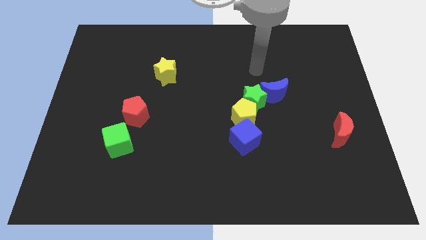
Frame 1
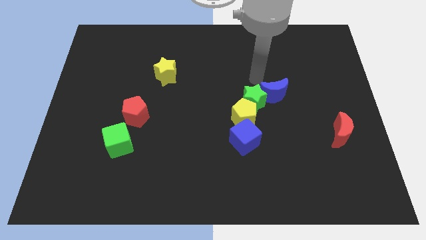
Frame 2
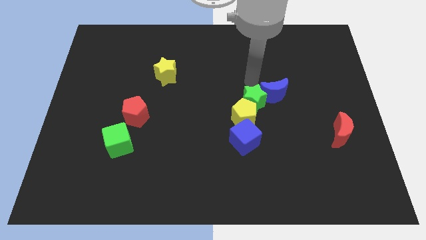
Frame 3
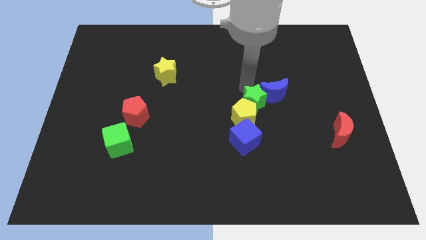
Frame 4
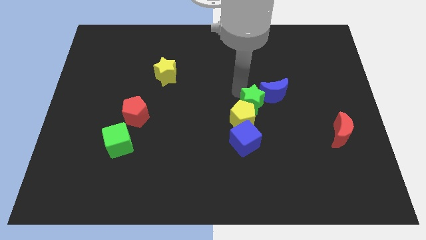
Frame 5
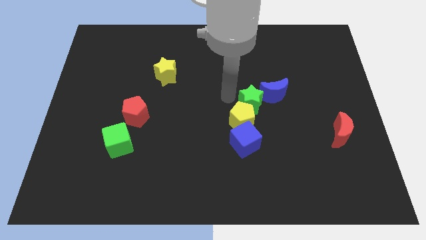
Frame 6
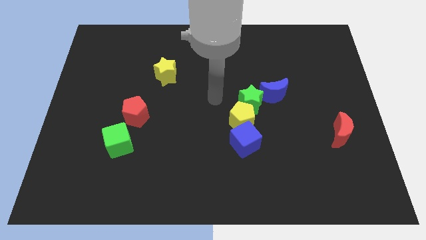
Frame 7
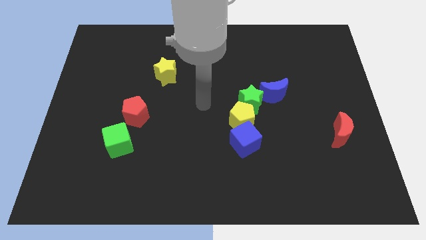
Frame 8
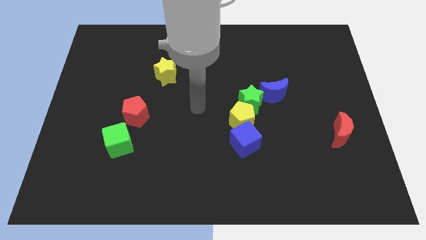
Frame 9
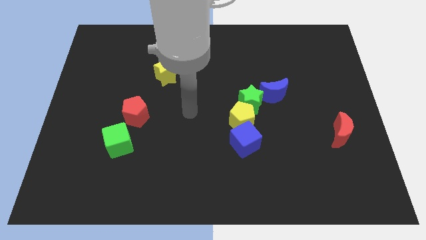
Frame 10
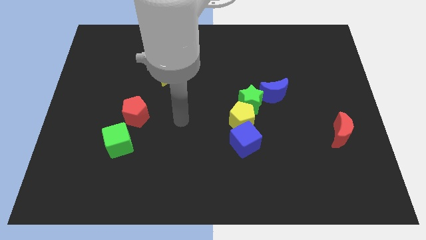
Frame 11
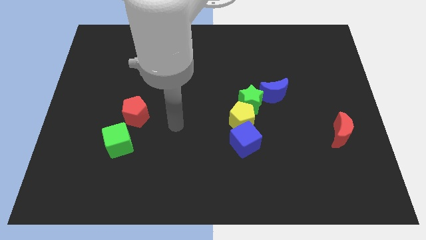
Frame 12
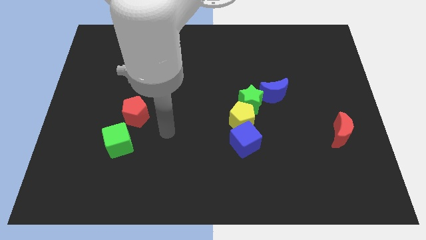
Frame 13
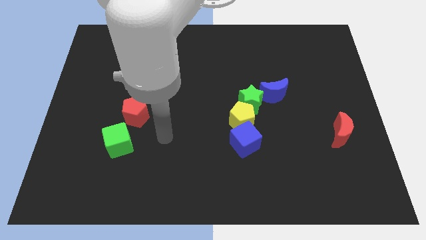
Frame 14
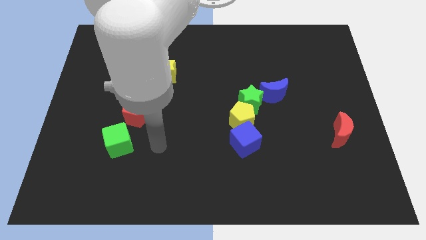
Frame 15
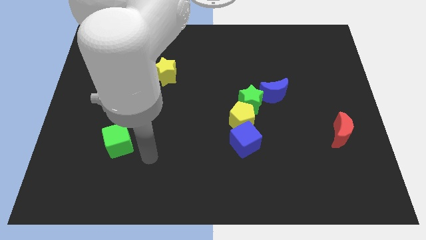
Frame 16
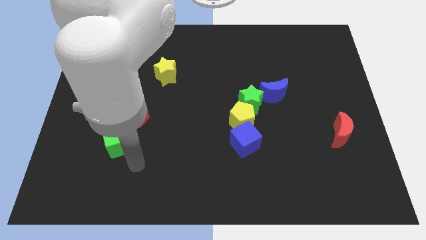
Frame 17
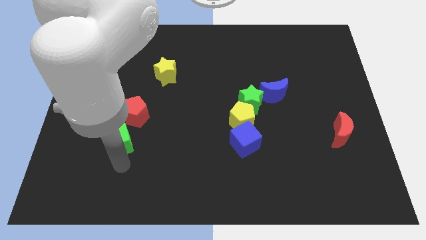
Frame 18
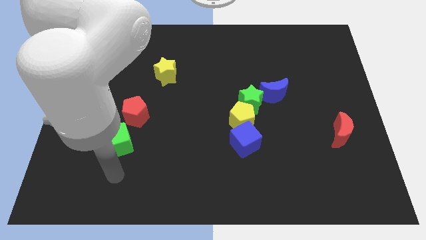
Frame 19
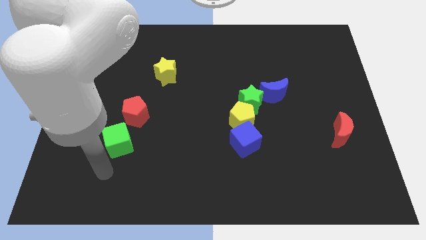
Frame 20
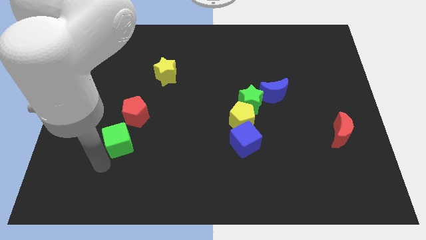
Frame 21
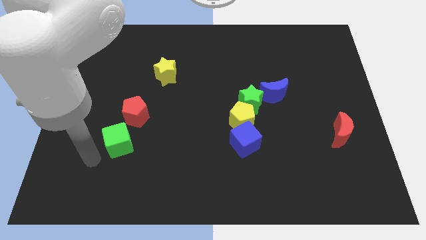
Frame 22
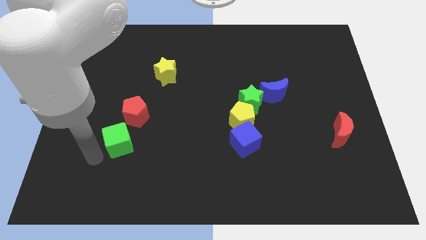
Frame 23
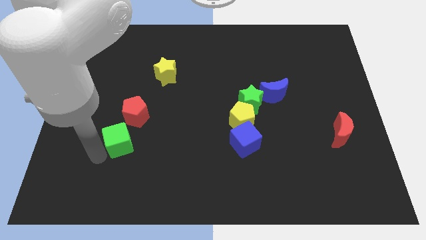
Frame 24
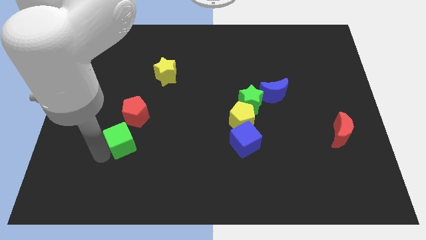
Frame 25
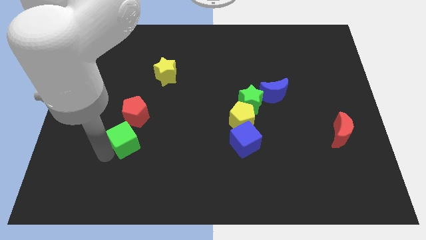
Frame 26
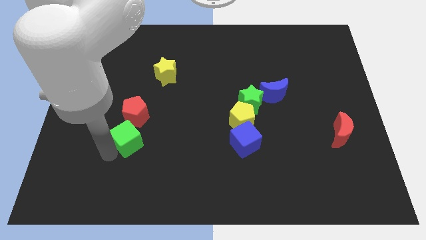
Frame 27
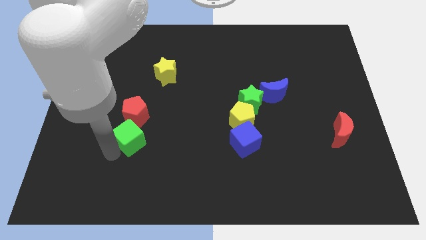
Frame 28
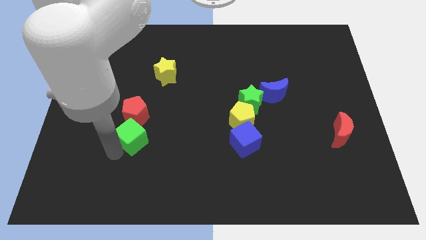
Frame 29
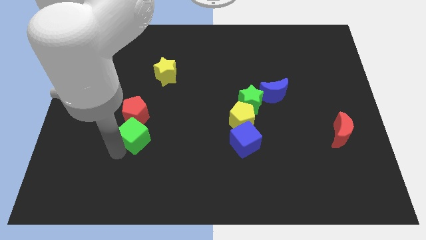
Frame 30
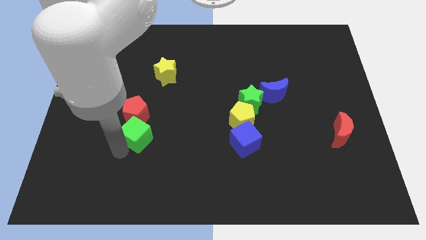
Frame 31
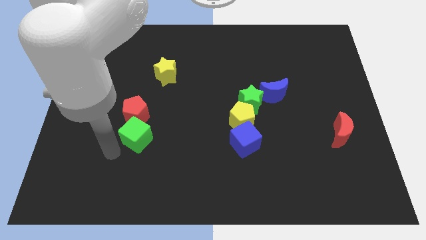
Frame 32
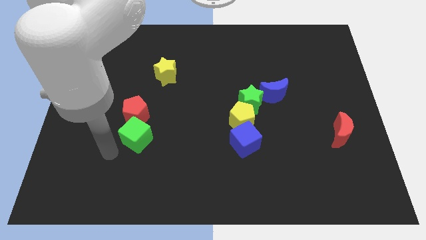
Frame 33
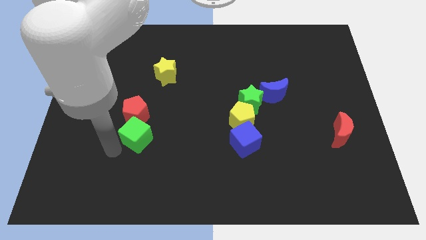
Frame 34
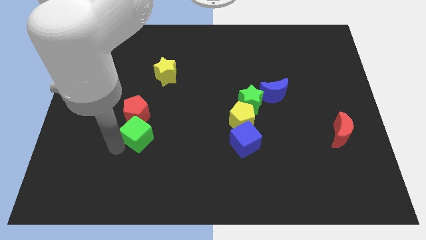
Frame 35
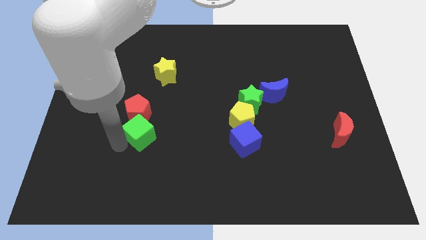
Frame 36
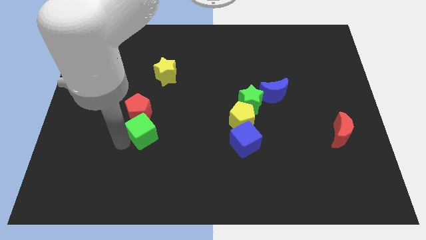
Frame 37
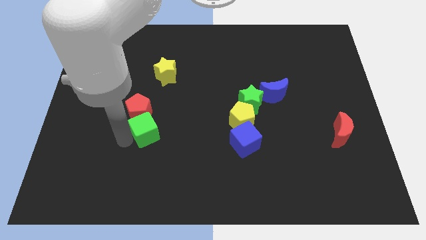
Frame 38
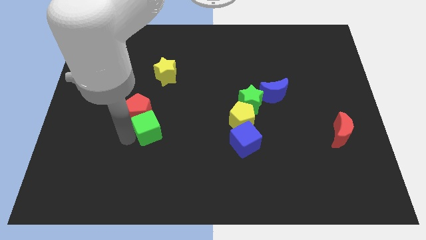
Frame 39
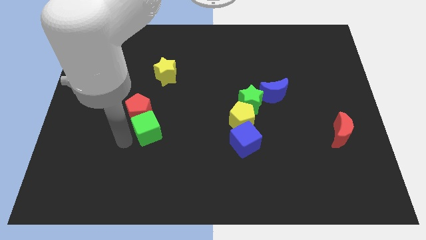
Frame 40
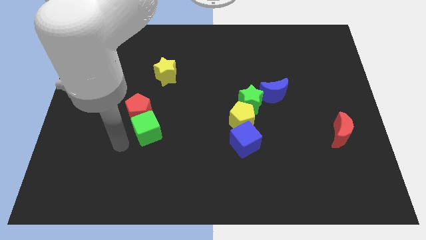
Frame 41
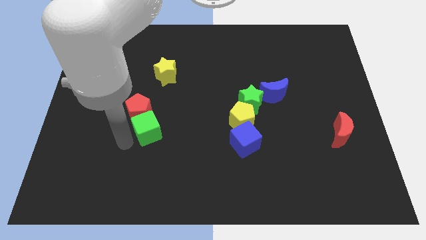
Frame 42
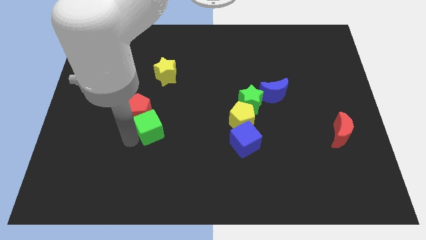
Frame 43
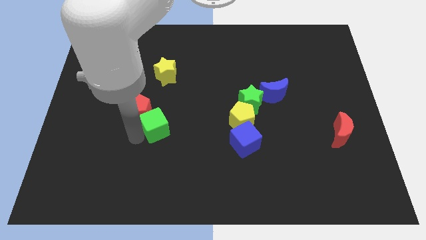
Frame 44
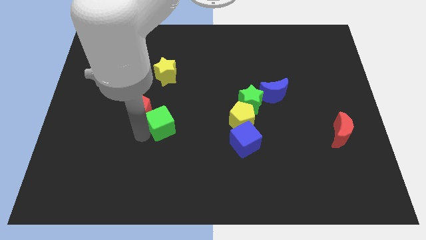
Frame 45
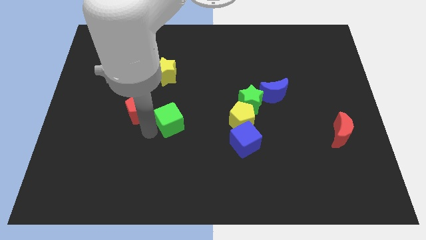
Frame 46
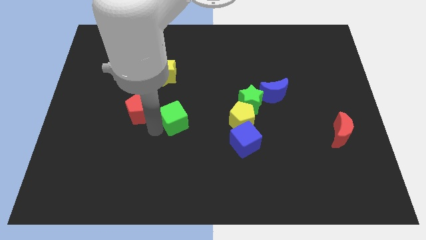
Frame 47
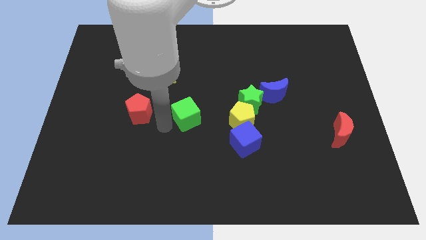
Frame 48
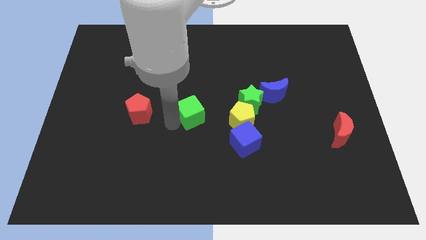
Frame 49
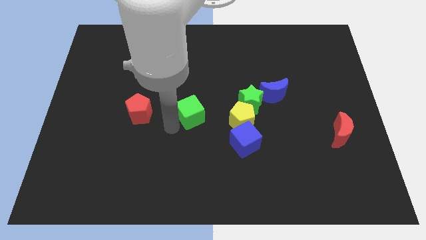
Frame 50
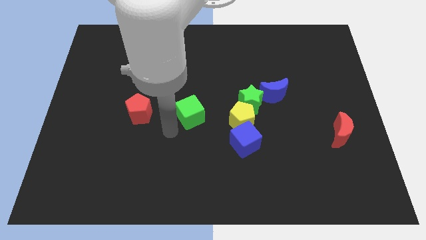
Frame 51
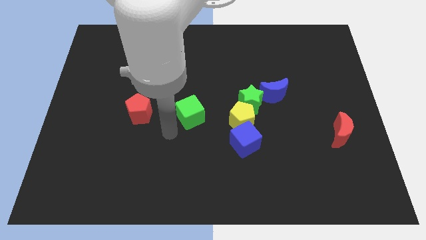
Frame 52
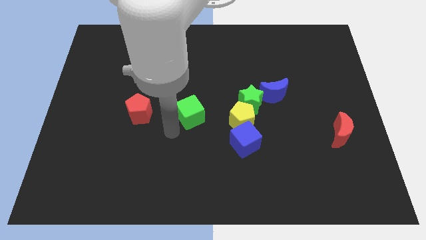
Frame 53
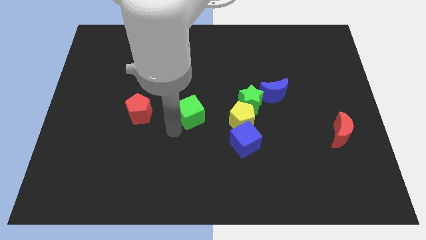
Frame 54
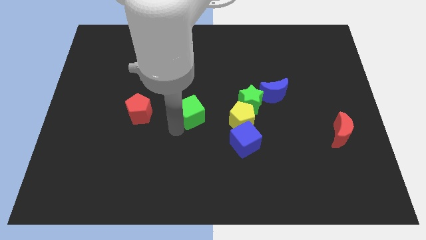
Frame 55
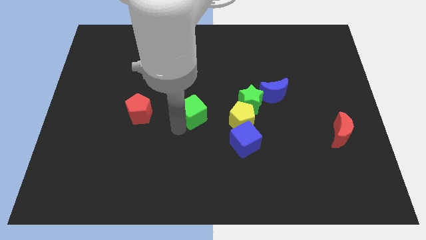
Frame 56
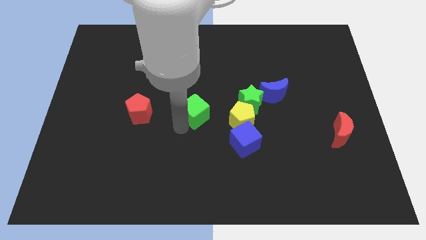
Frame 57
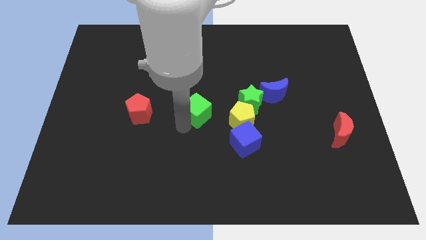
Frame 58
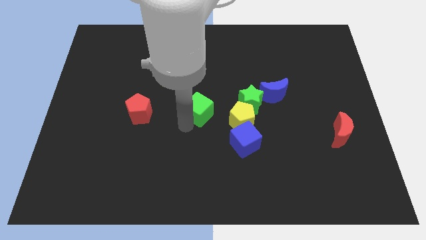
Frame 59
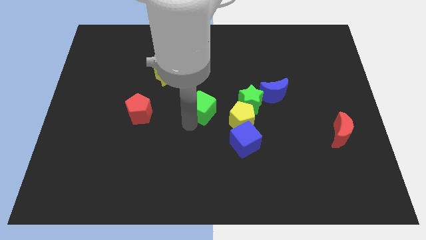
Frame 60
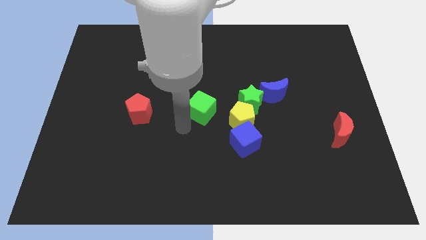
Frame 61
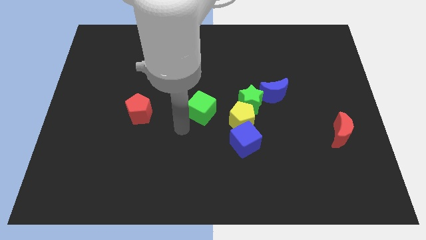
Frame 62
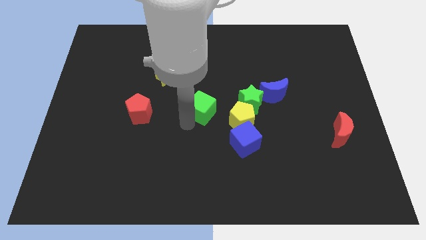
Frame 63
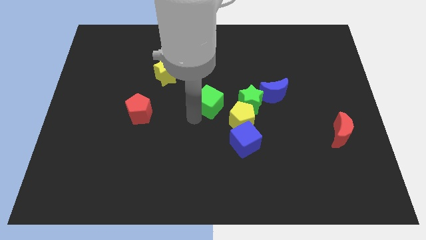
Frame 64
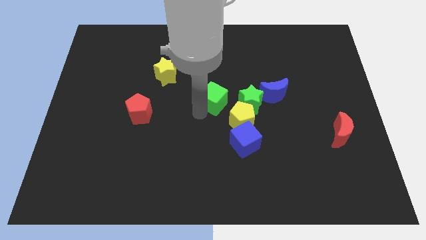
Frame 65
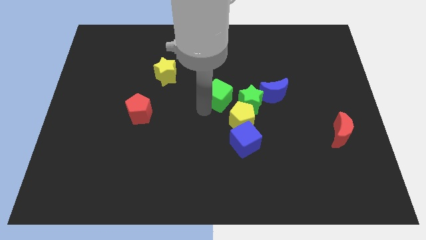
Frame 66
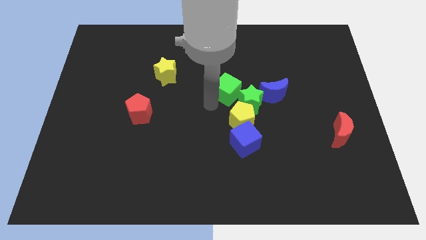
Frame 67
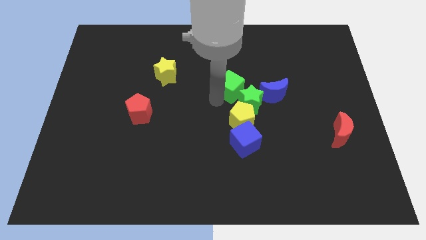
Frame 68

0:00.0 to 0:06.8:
put the green cube to the top of the green star

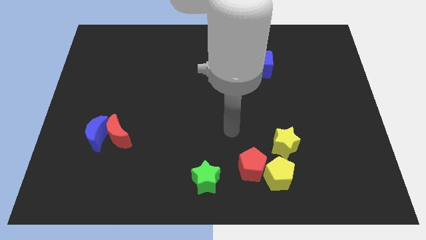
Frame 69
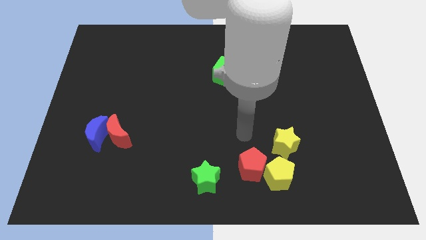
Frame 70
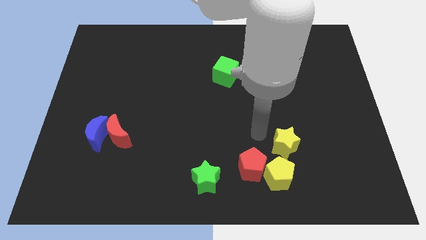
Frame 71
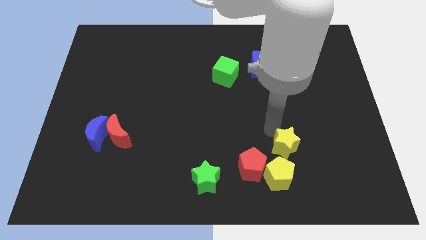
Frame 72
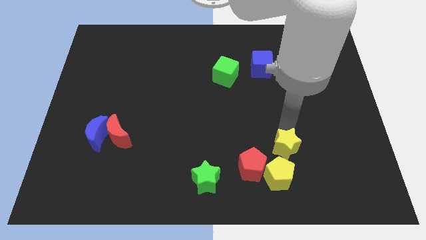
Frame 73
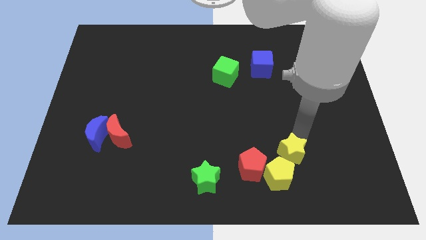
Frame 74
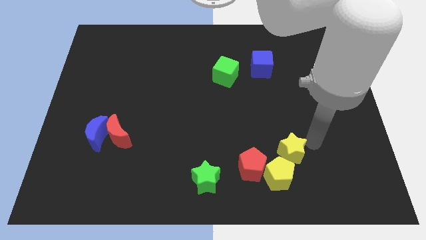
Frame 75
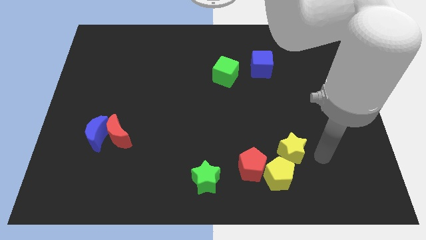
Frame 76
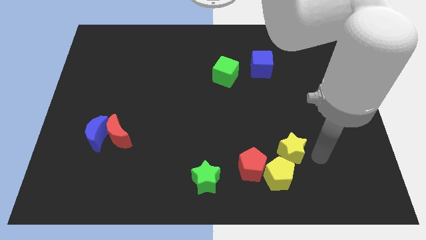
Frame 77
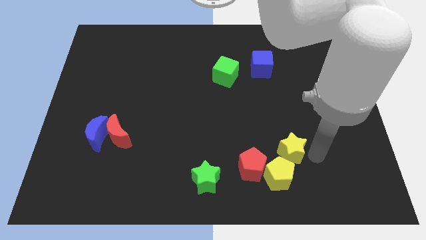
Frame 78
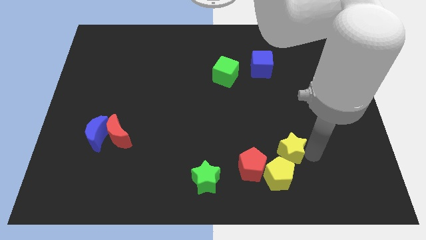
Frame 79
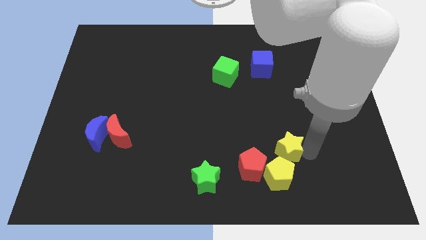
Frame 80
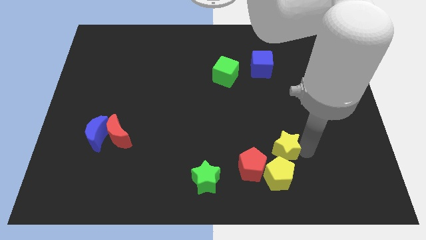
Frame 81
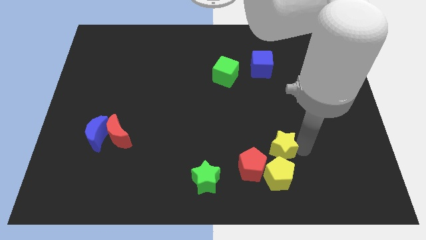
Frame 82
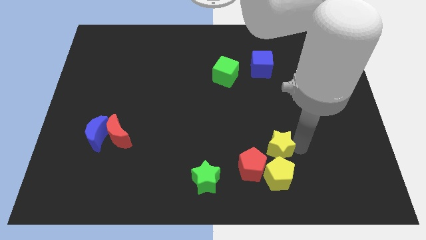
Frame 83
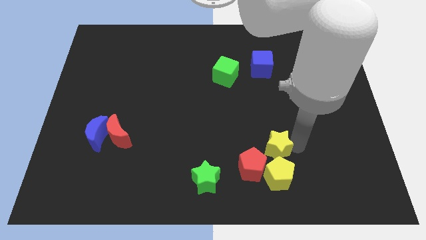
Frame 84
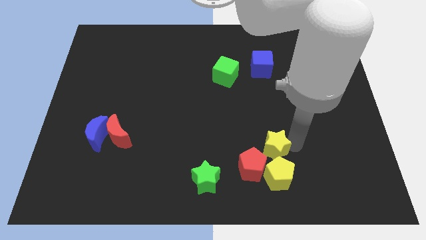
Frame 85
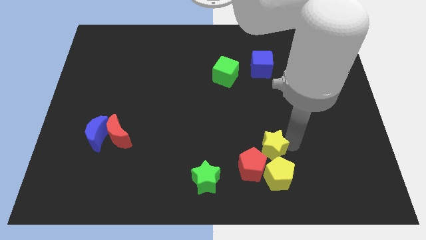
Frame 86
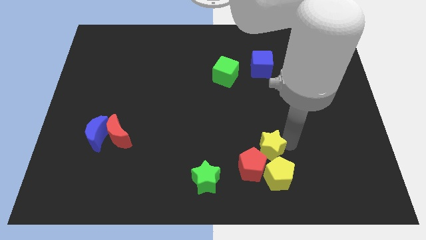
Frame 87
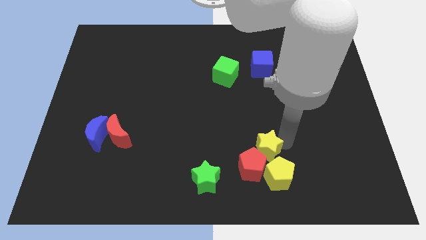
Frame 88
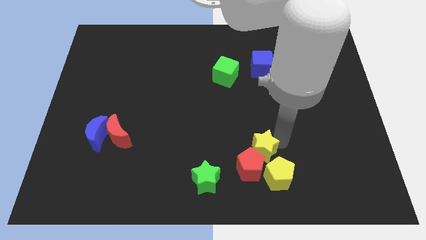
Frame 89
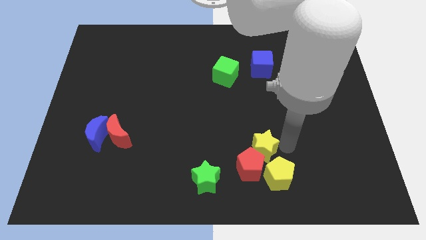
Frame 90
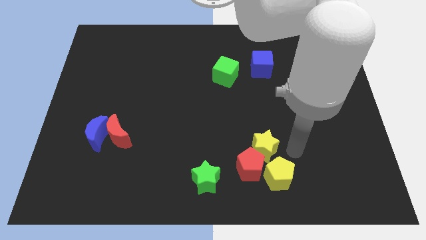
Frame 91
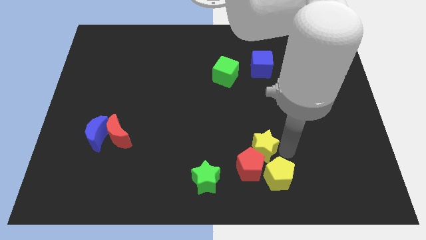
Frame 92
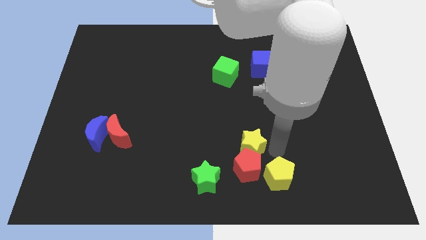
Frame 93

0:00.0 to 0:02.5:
push the yellow star diagonally up and to the left of the red pentagon
